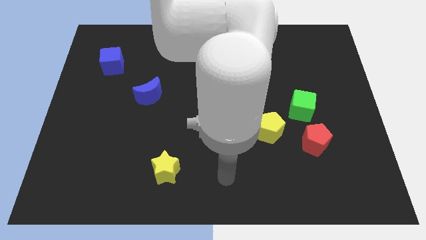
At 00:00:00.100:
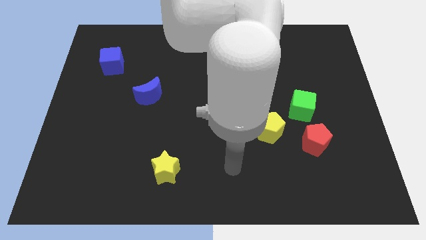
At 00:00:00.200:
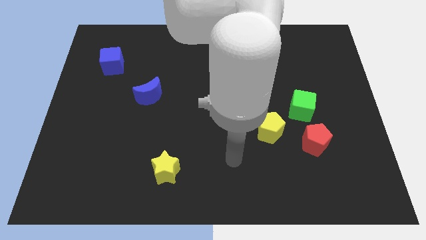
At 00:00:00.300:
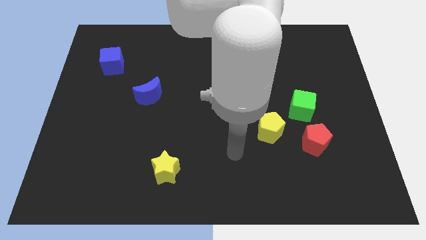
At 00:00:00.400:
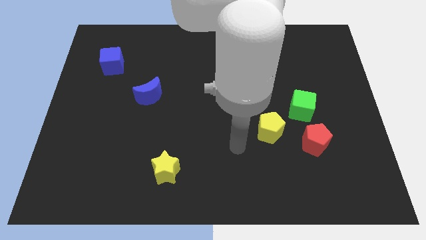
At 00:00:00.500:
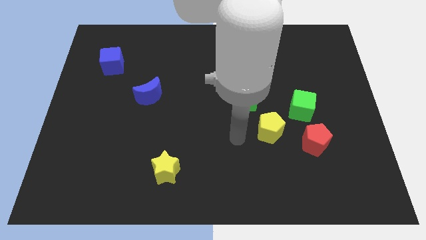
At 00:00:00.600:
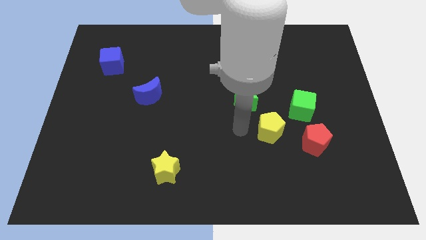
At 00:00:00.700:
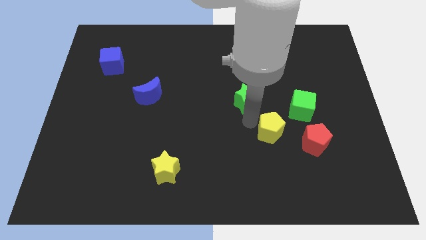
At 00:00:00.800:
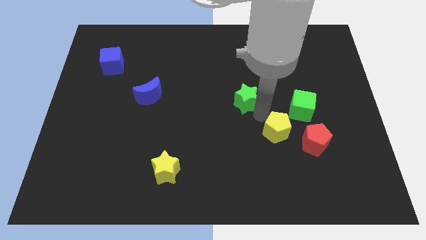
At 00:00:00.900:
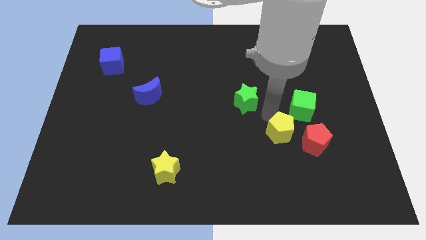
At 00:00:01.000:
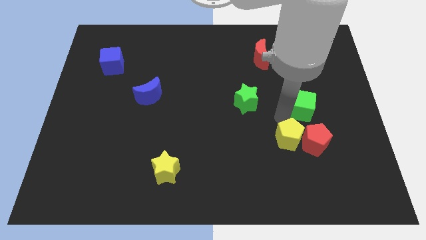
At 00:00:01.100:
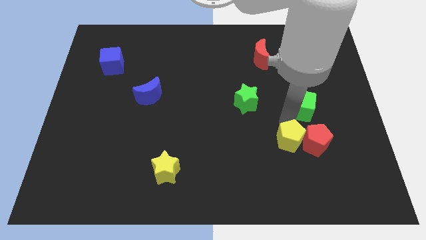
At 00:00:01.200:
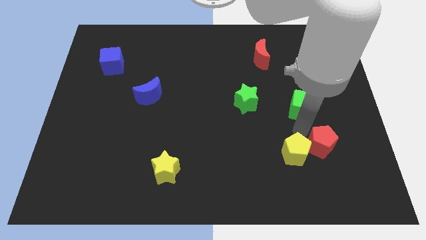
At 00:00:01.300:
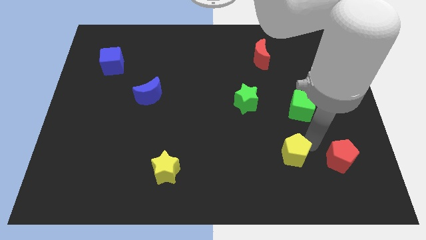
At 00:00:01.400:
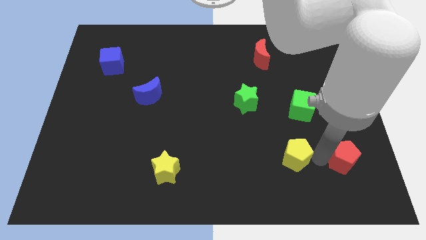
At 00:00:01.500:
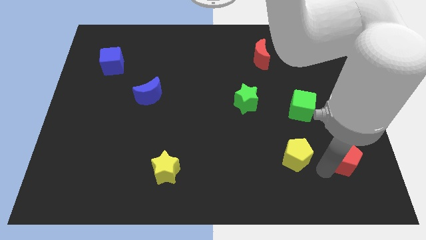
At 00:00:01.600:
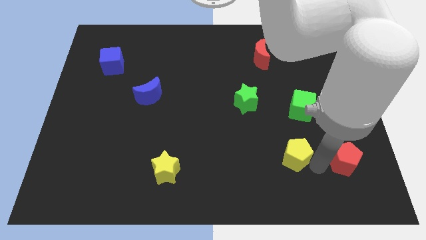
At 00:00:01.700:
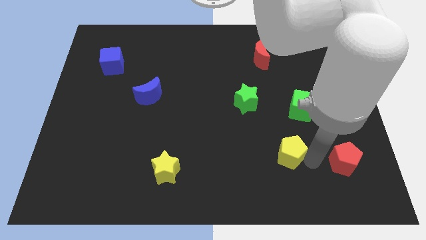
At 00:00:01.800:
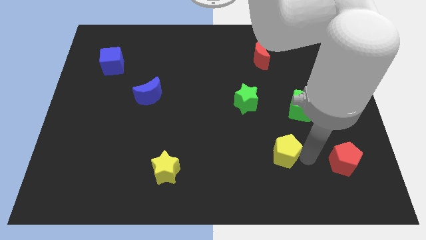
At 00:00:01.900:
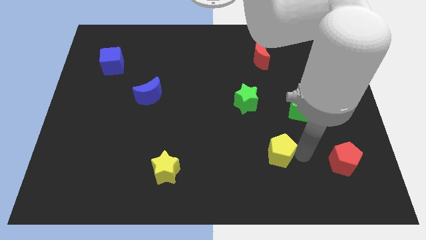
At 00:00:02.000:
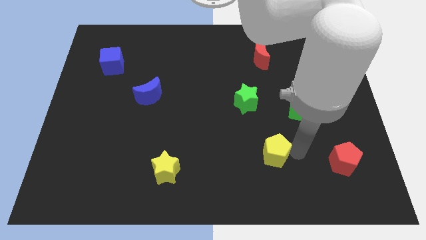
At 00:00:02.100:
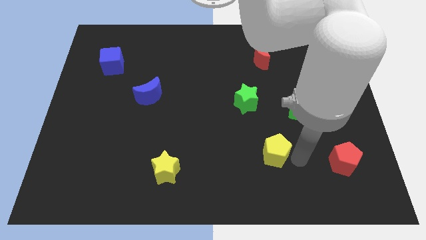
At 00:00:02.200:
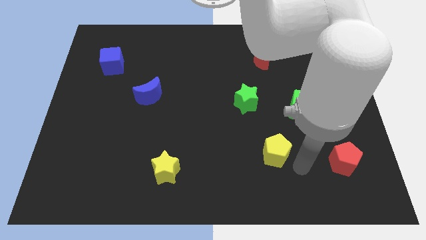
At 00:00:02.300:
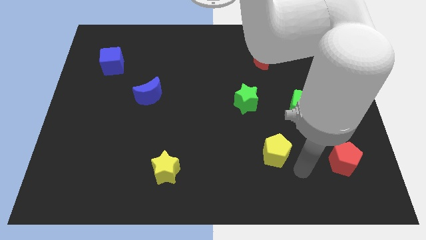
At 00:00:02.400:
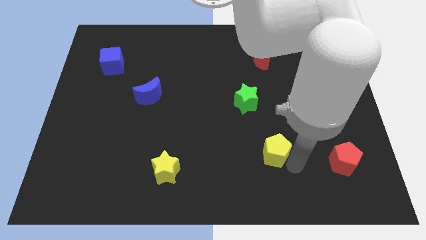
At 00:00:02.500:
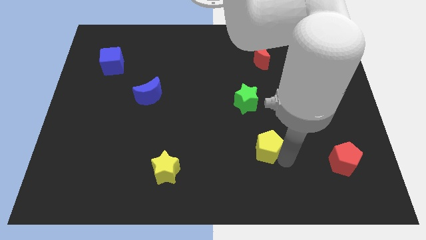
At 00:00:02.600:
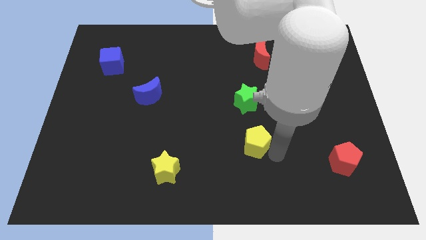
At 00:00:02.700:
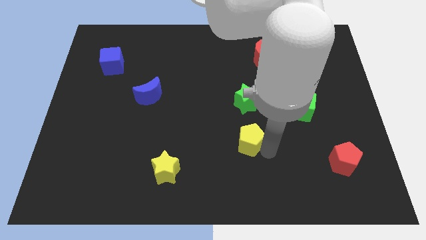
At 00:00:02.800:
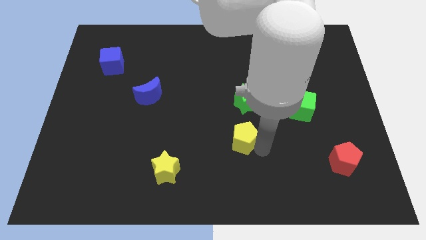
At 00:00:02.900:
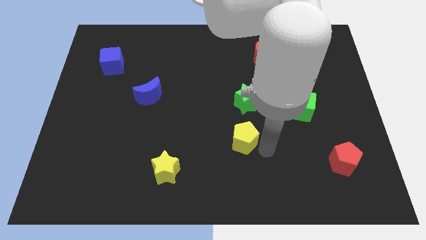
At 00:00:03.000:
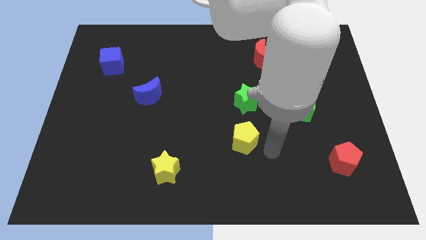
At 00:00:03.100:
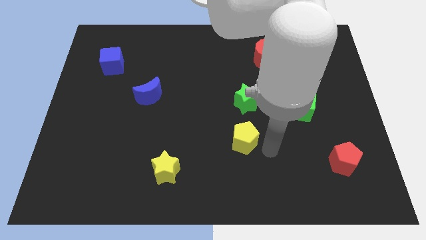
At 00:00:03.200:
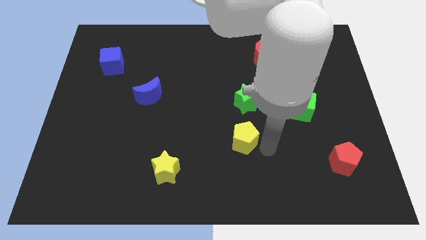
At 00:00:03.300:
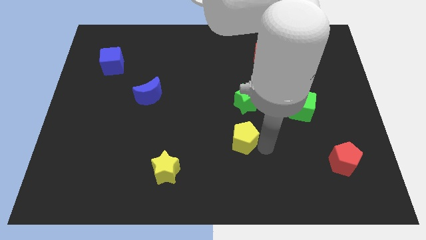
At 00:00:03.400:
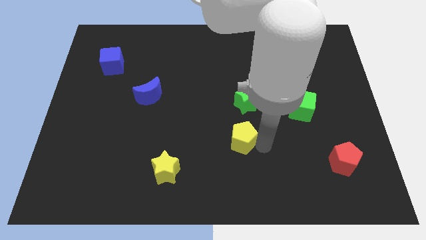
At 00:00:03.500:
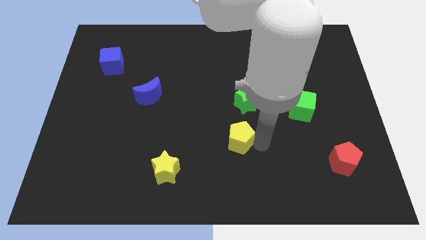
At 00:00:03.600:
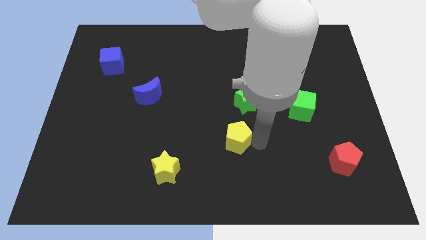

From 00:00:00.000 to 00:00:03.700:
push the yellow pentagon left a bit

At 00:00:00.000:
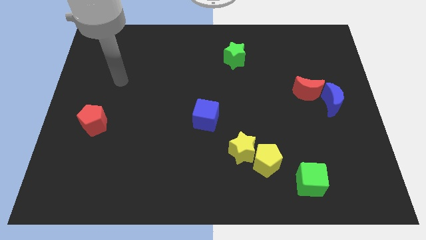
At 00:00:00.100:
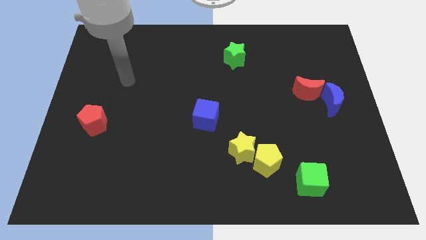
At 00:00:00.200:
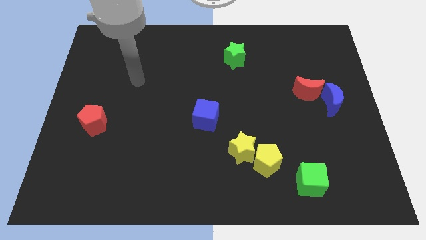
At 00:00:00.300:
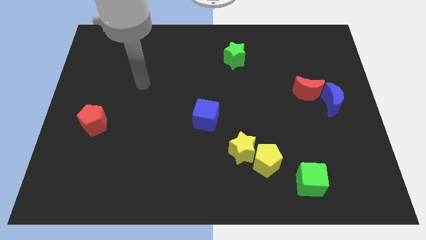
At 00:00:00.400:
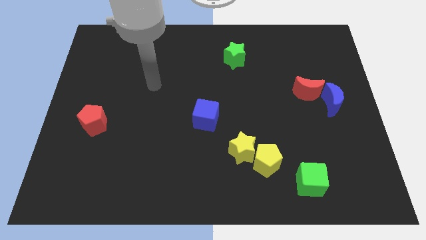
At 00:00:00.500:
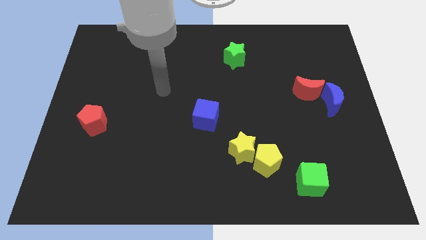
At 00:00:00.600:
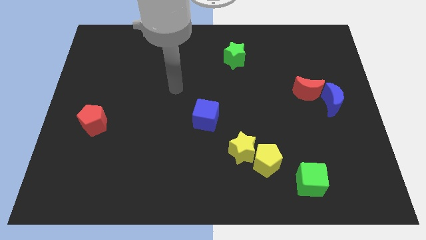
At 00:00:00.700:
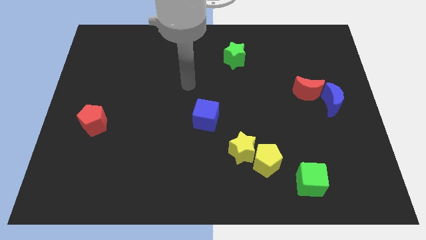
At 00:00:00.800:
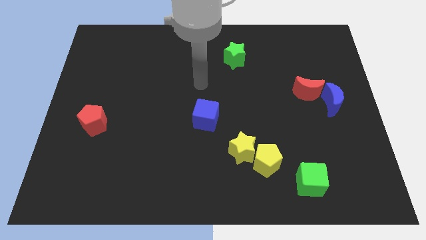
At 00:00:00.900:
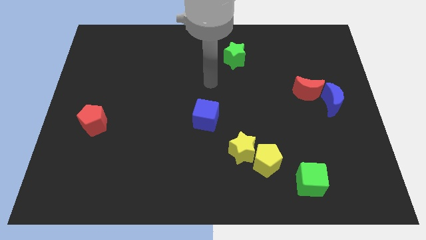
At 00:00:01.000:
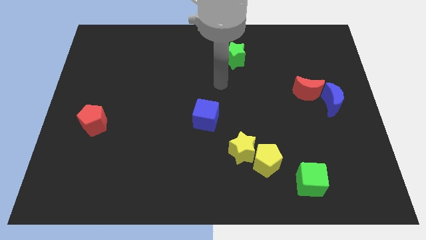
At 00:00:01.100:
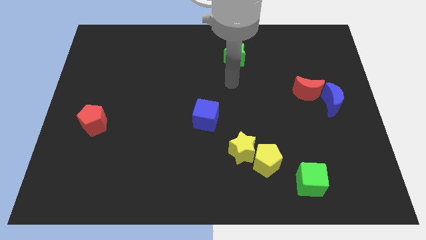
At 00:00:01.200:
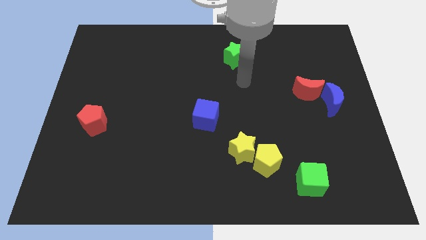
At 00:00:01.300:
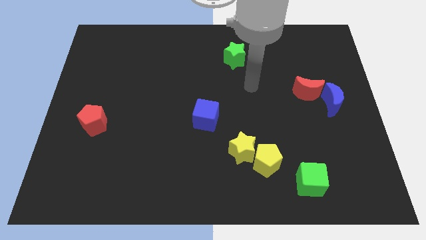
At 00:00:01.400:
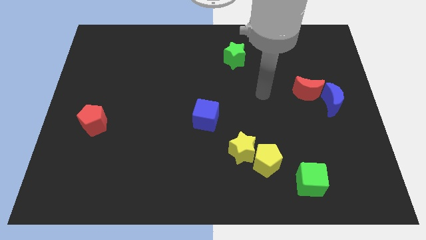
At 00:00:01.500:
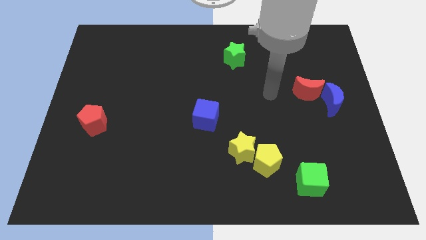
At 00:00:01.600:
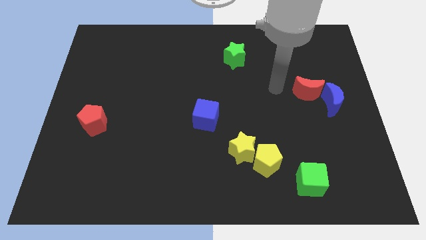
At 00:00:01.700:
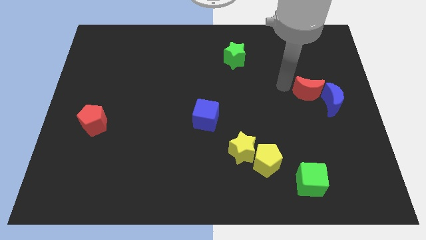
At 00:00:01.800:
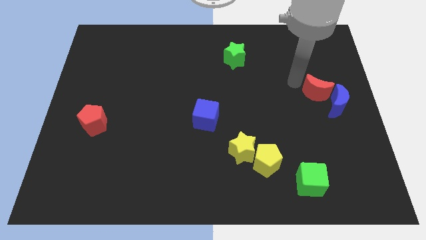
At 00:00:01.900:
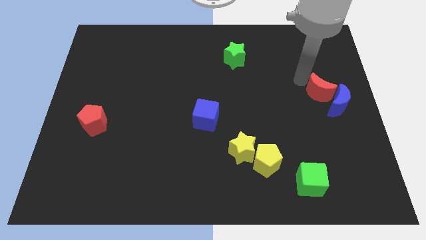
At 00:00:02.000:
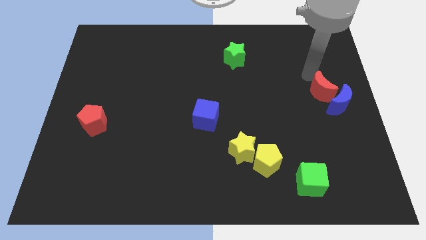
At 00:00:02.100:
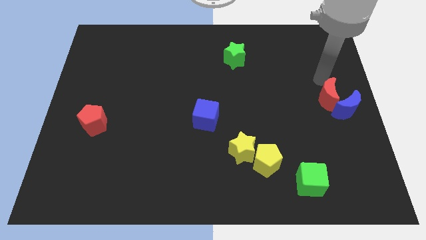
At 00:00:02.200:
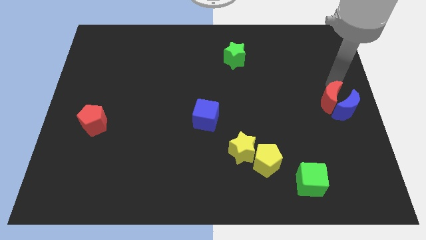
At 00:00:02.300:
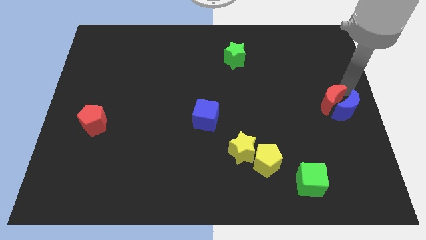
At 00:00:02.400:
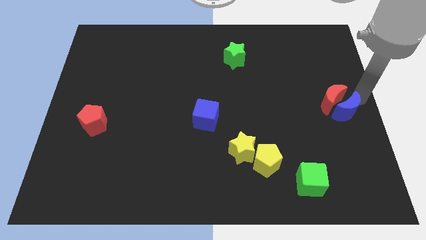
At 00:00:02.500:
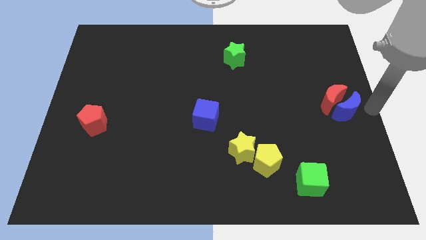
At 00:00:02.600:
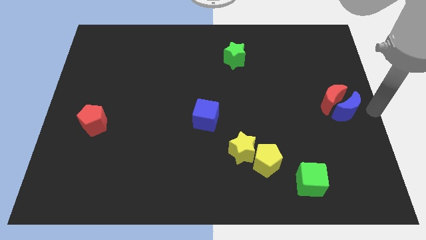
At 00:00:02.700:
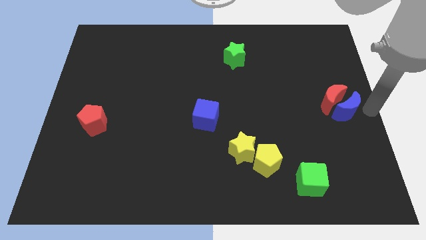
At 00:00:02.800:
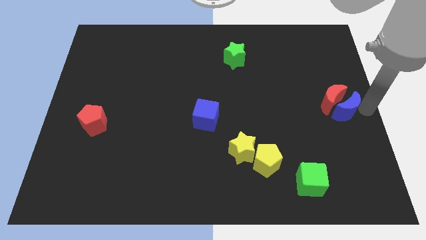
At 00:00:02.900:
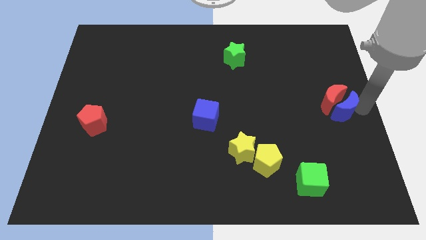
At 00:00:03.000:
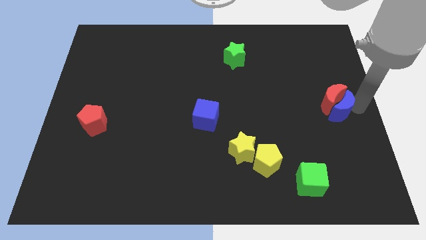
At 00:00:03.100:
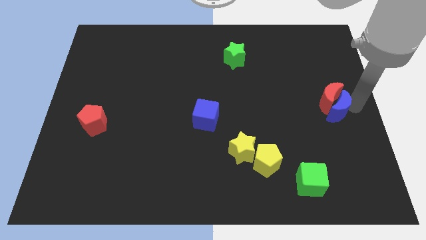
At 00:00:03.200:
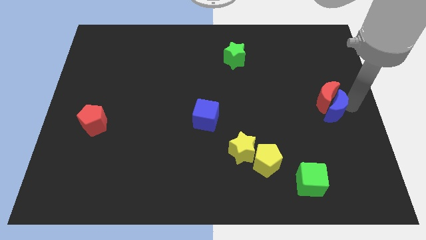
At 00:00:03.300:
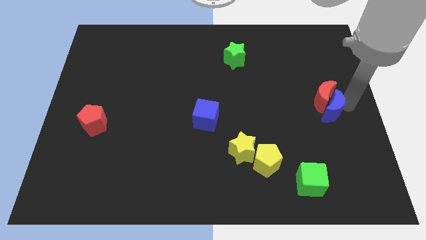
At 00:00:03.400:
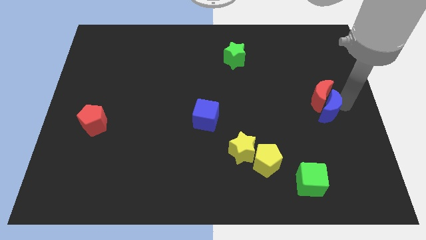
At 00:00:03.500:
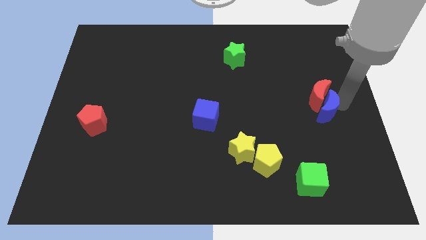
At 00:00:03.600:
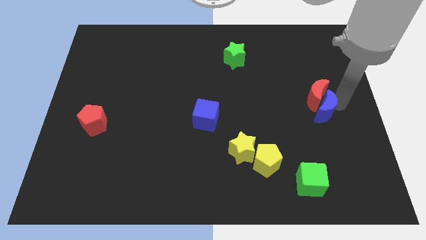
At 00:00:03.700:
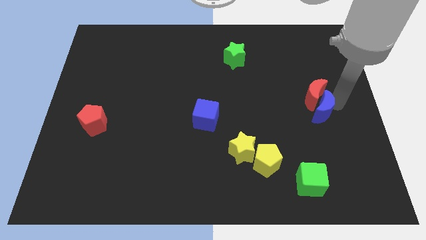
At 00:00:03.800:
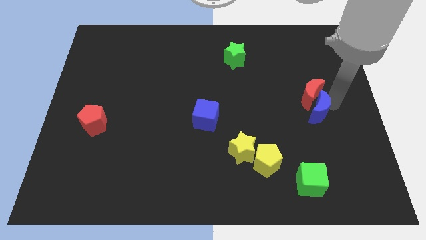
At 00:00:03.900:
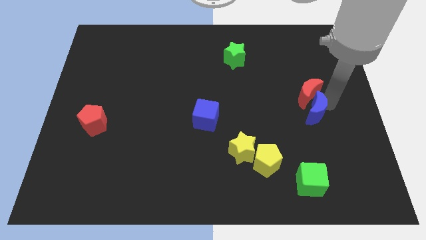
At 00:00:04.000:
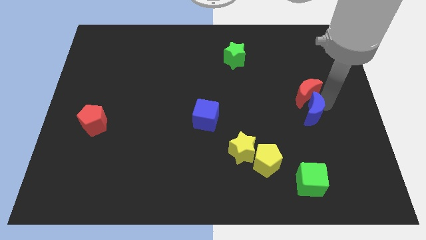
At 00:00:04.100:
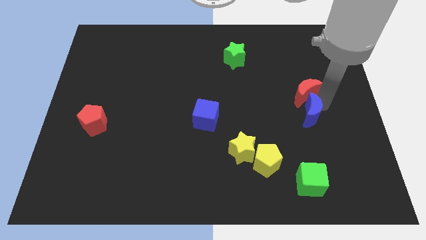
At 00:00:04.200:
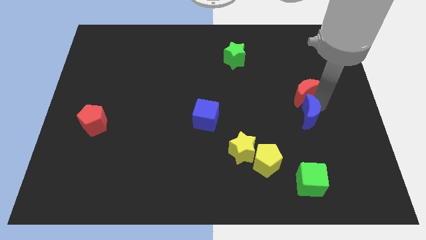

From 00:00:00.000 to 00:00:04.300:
slightly slide the blue moon down and then to the left
